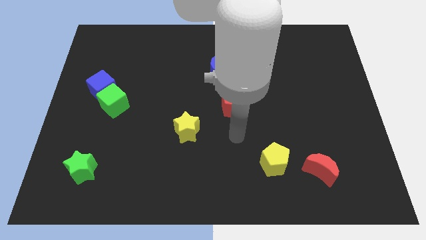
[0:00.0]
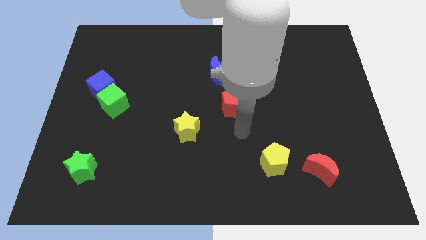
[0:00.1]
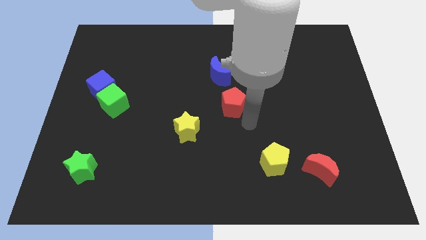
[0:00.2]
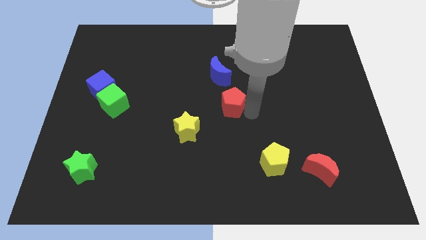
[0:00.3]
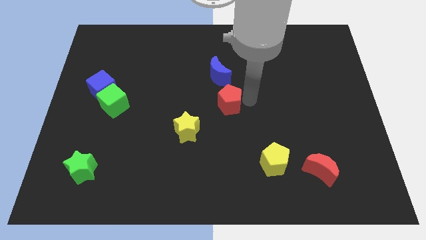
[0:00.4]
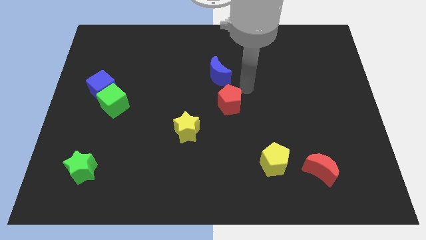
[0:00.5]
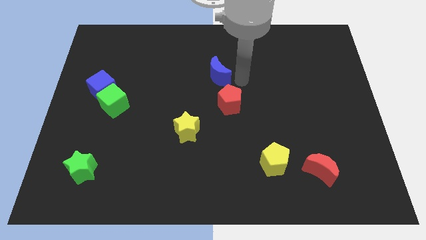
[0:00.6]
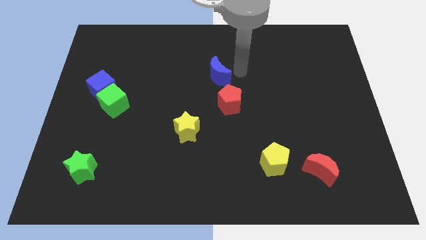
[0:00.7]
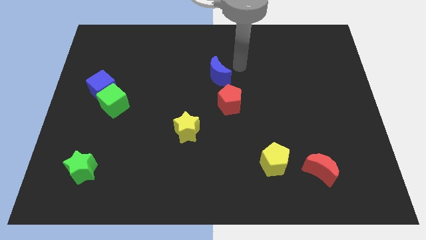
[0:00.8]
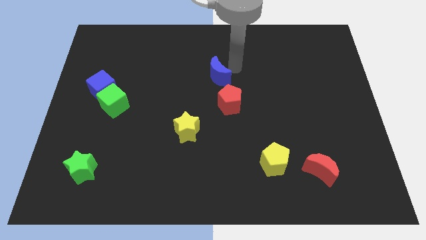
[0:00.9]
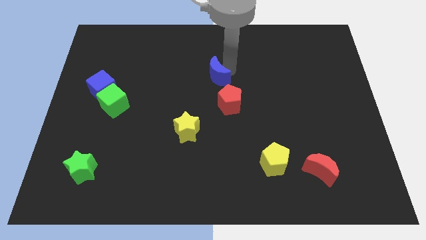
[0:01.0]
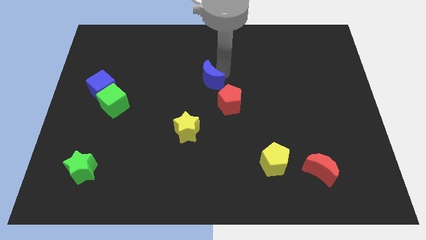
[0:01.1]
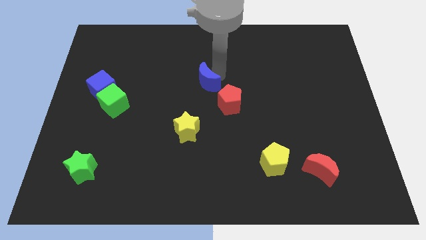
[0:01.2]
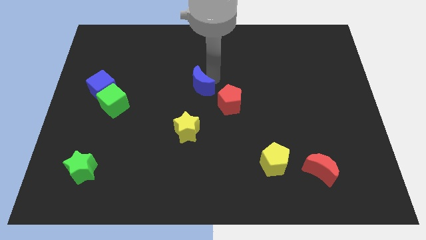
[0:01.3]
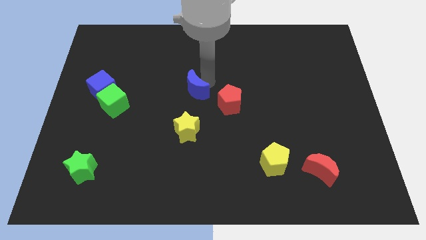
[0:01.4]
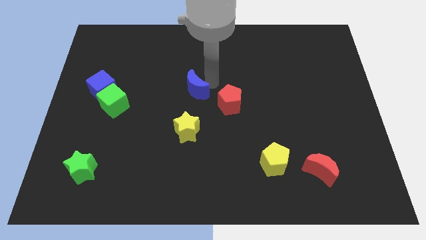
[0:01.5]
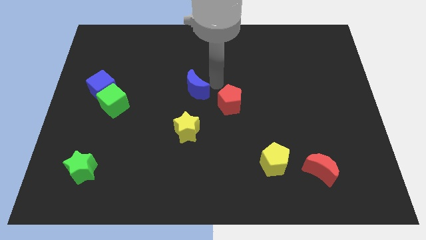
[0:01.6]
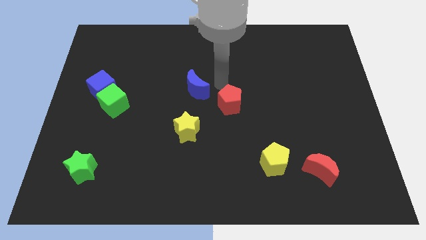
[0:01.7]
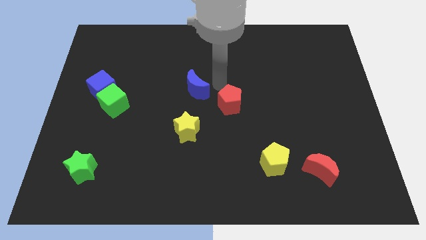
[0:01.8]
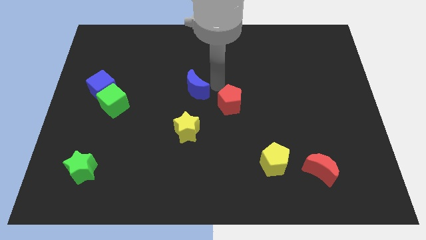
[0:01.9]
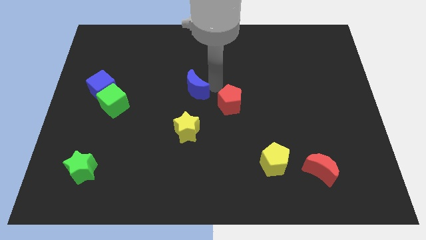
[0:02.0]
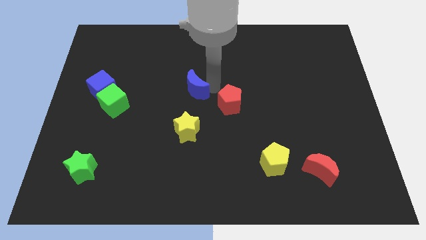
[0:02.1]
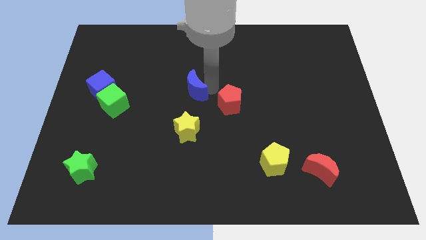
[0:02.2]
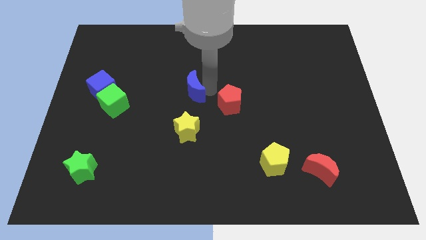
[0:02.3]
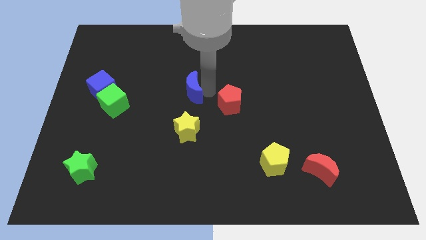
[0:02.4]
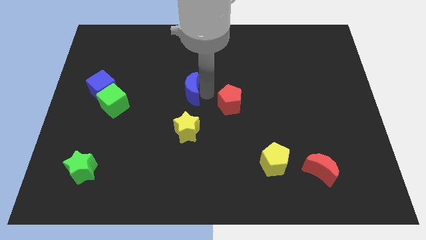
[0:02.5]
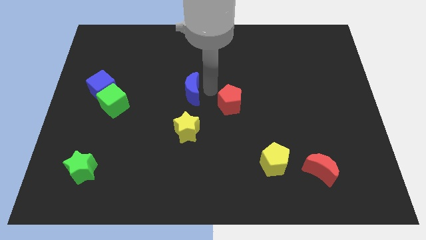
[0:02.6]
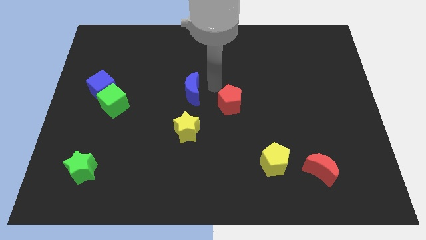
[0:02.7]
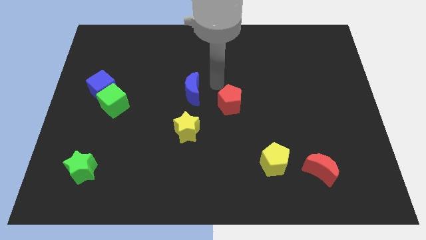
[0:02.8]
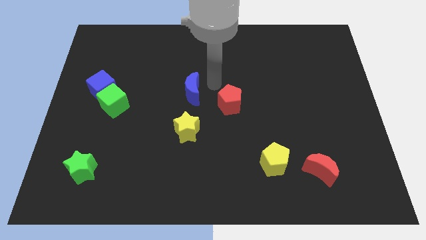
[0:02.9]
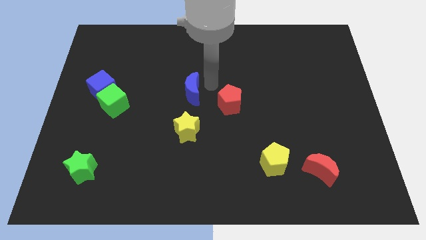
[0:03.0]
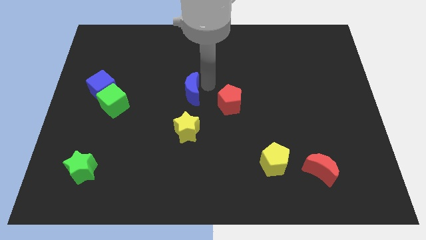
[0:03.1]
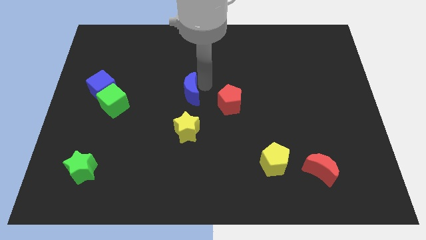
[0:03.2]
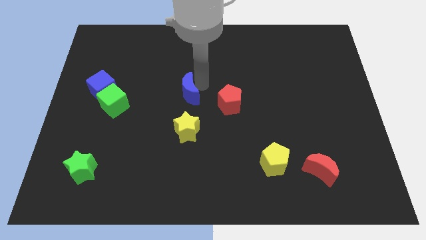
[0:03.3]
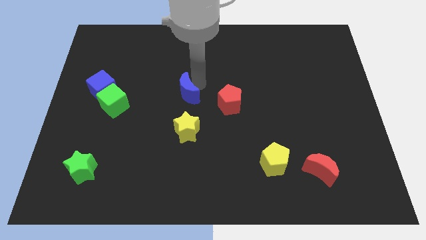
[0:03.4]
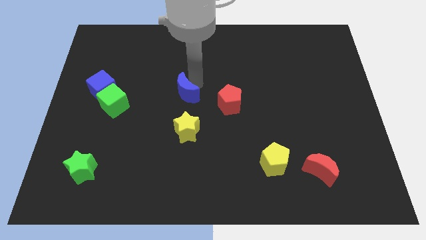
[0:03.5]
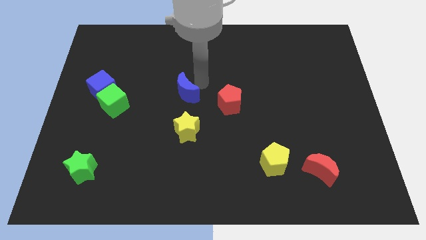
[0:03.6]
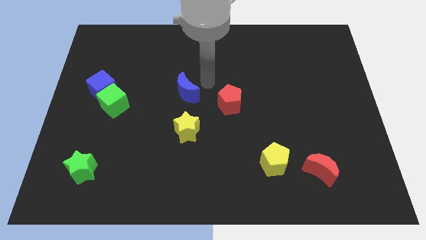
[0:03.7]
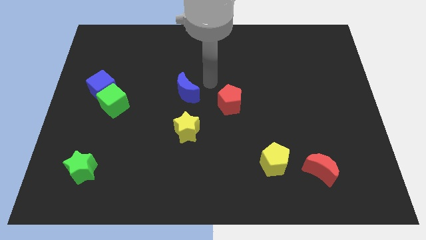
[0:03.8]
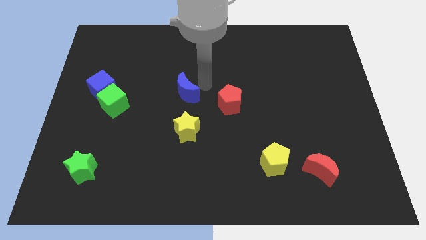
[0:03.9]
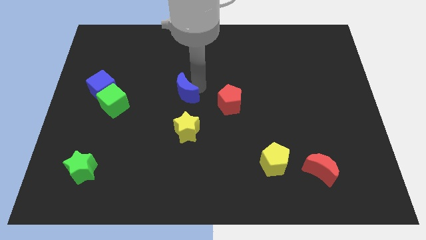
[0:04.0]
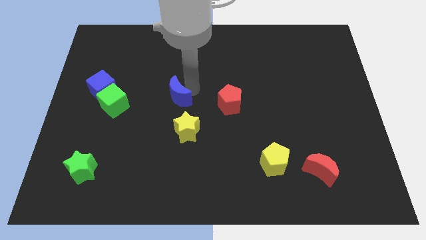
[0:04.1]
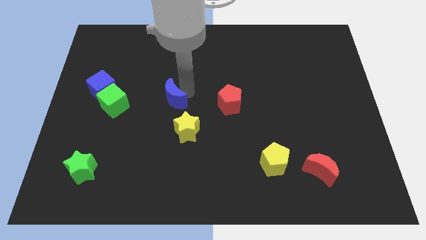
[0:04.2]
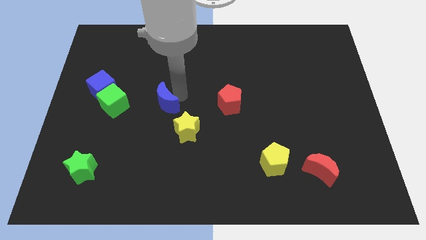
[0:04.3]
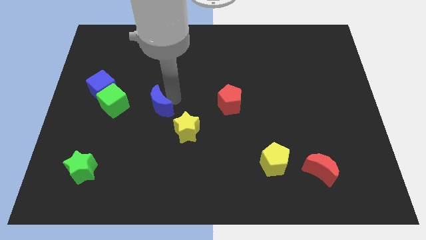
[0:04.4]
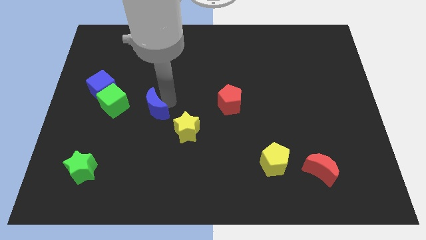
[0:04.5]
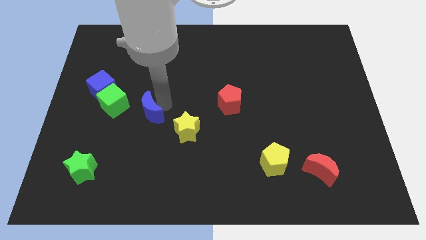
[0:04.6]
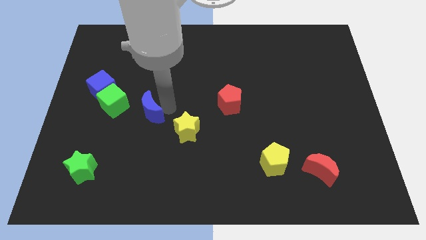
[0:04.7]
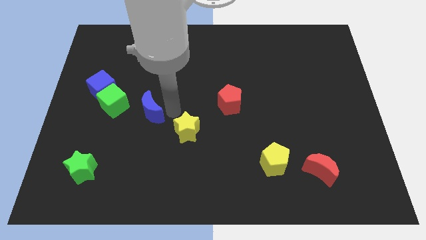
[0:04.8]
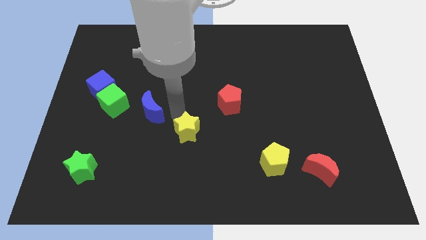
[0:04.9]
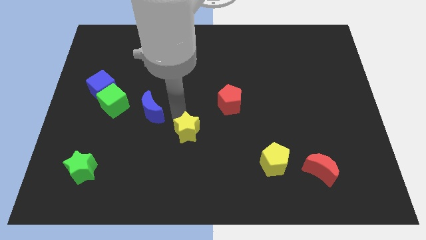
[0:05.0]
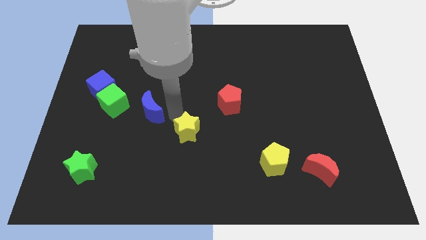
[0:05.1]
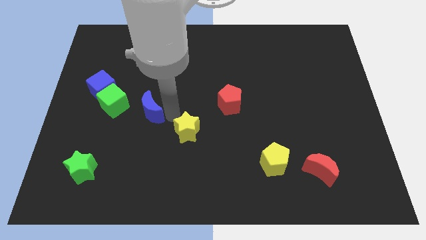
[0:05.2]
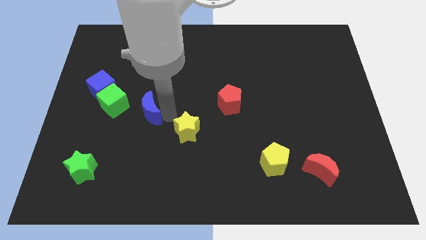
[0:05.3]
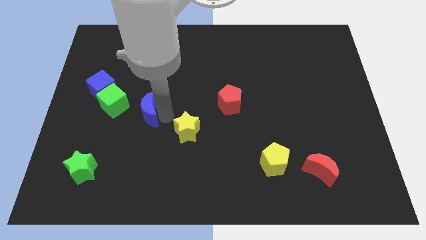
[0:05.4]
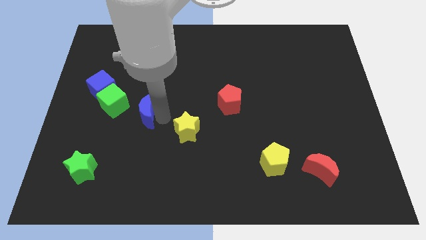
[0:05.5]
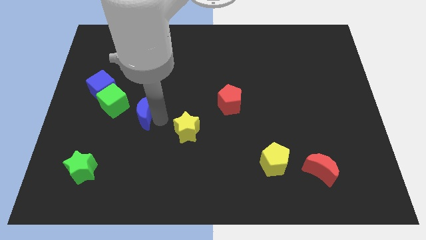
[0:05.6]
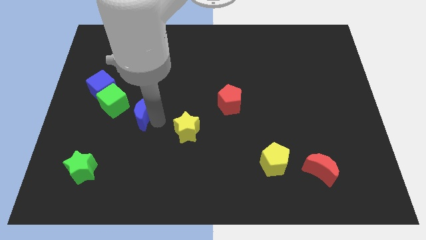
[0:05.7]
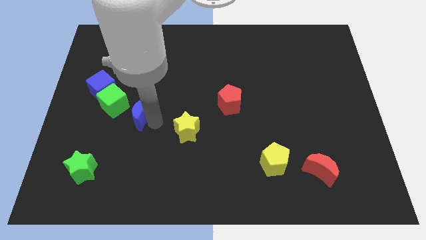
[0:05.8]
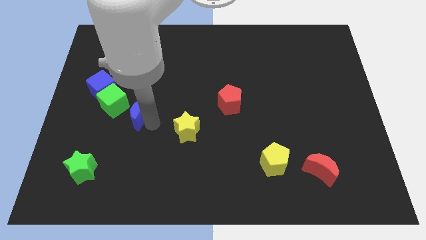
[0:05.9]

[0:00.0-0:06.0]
put the blue moon diagonally down and to the right of the blue cube

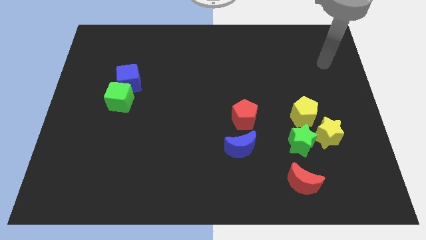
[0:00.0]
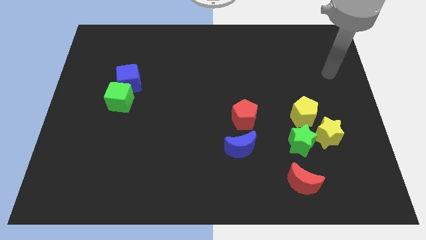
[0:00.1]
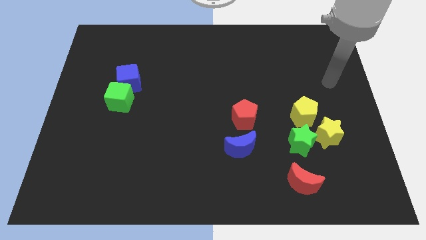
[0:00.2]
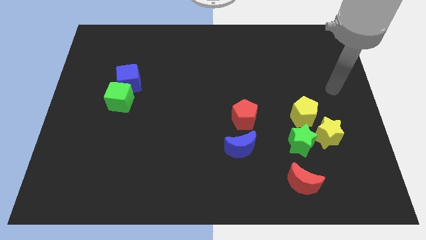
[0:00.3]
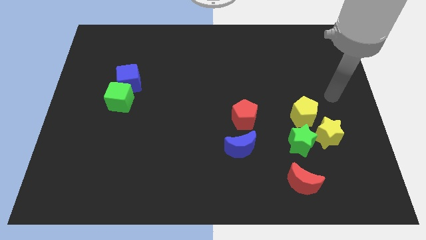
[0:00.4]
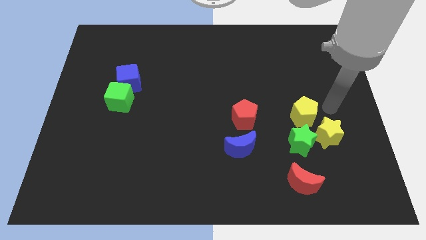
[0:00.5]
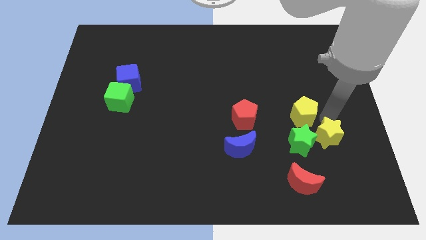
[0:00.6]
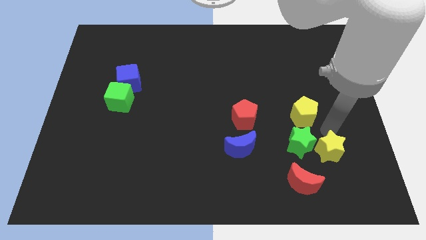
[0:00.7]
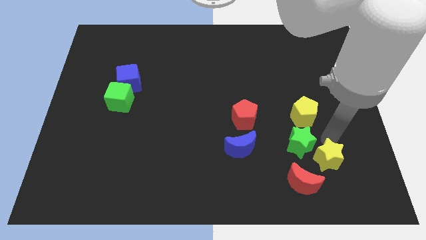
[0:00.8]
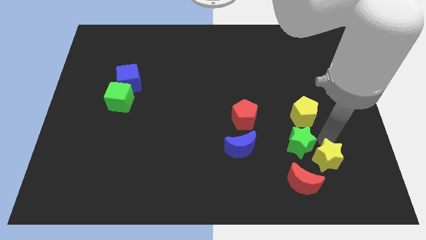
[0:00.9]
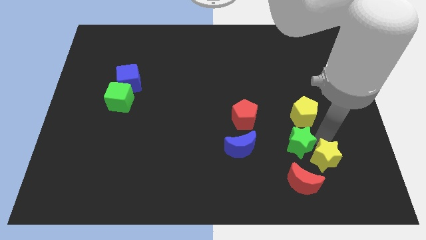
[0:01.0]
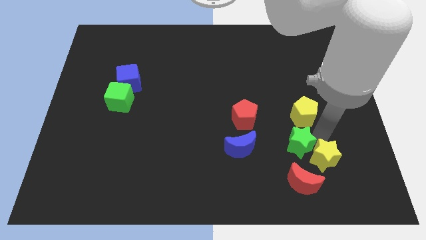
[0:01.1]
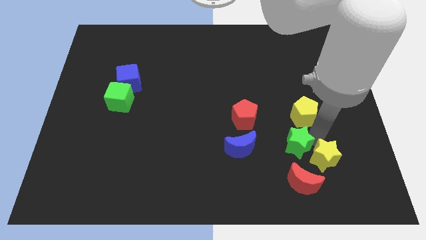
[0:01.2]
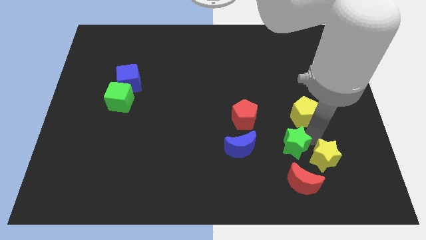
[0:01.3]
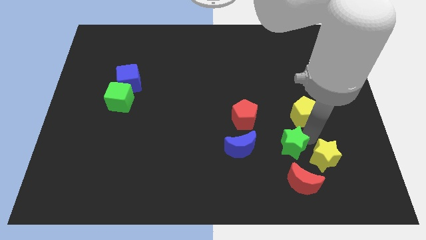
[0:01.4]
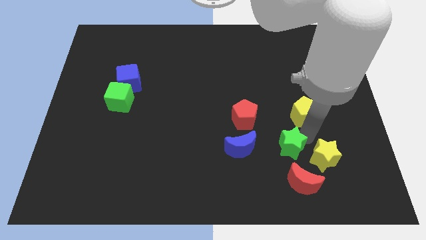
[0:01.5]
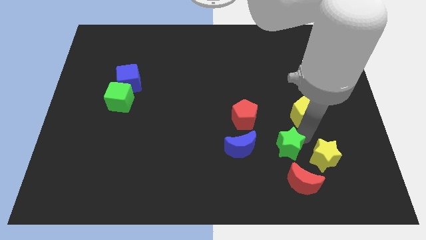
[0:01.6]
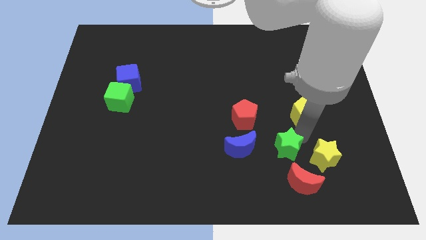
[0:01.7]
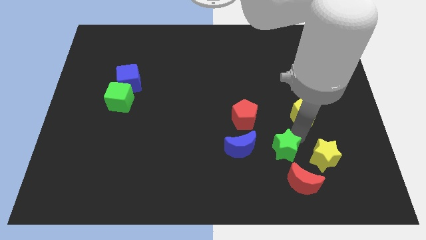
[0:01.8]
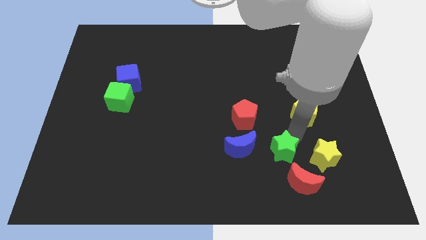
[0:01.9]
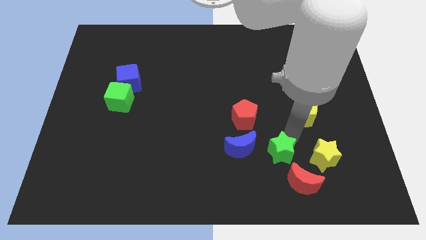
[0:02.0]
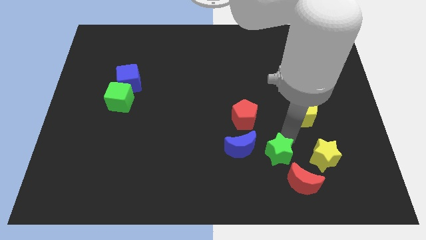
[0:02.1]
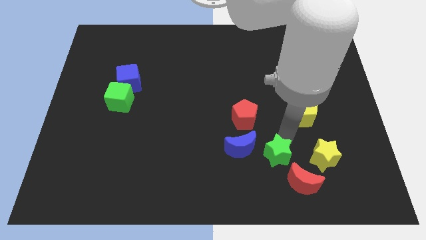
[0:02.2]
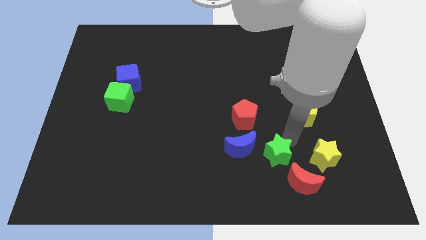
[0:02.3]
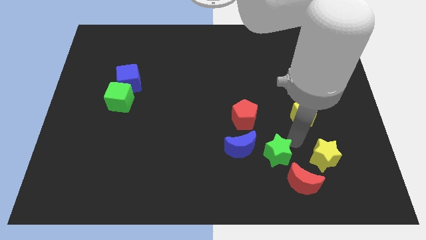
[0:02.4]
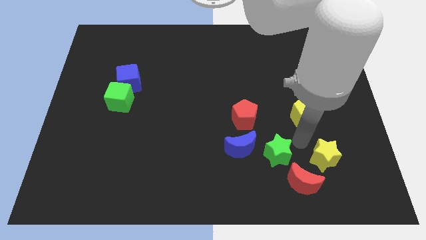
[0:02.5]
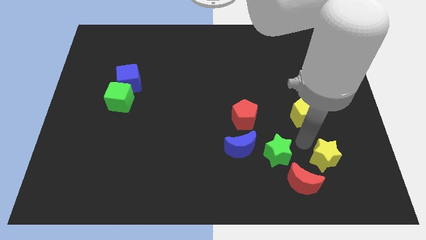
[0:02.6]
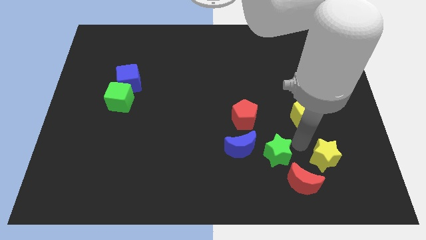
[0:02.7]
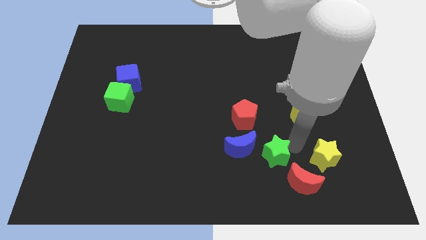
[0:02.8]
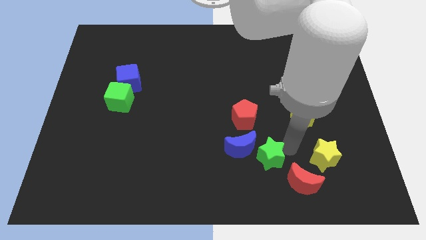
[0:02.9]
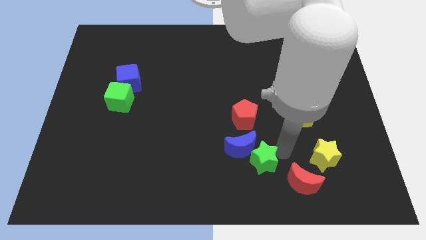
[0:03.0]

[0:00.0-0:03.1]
move the green star below the red pentagon
